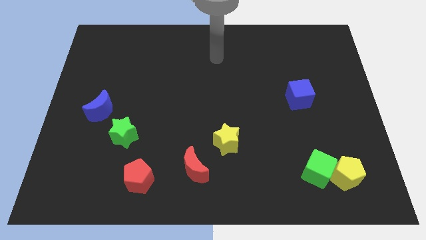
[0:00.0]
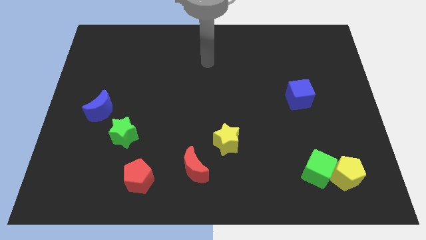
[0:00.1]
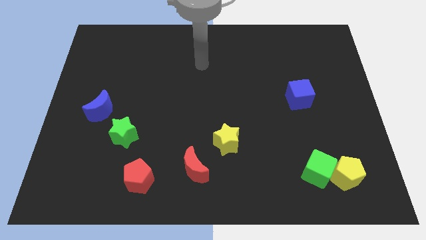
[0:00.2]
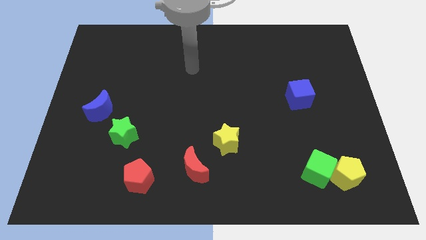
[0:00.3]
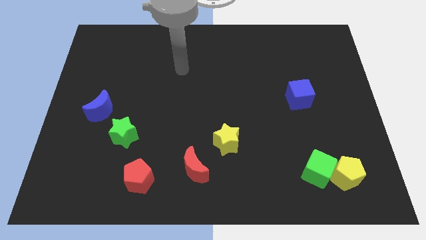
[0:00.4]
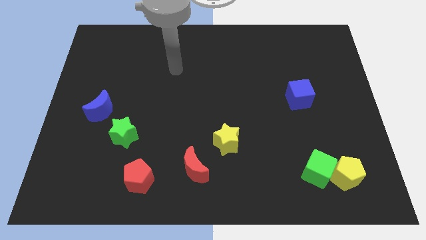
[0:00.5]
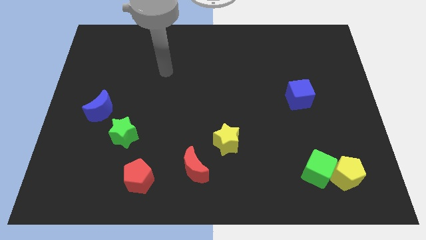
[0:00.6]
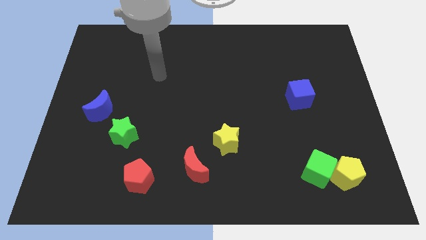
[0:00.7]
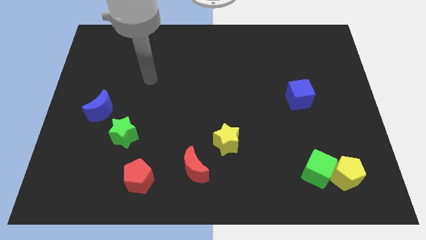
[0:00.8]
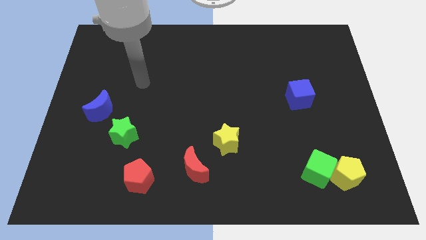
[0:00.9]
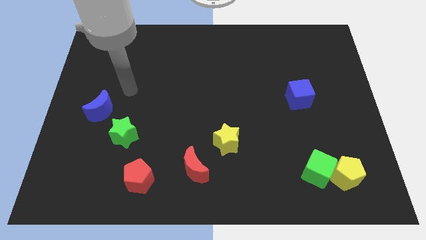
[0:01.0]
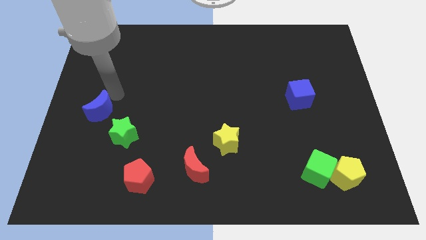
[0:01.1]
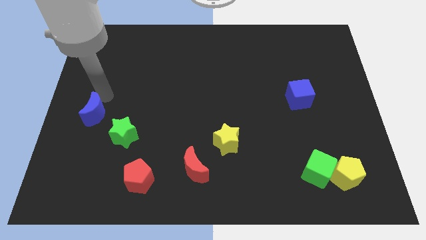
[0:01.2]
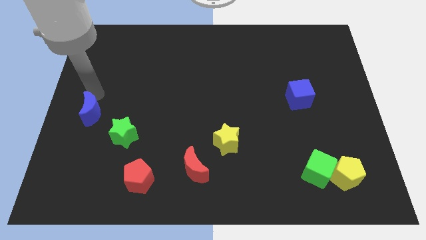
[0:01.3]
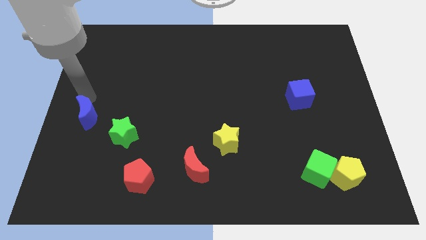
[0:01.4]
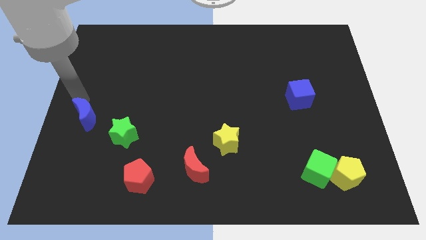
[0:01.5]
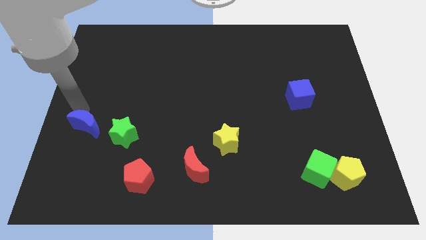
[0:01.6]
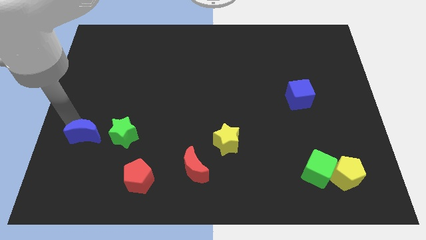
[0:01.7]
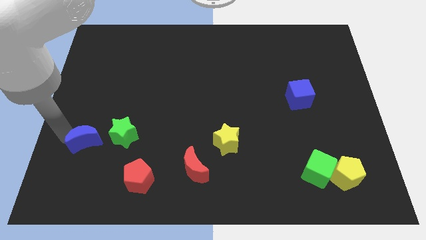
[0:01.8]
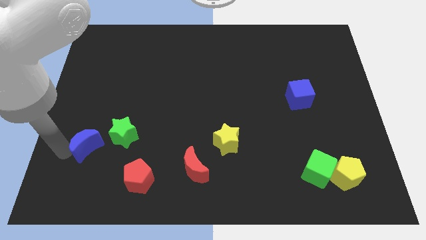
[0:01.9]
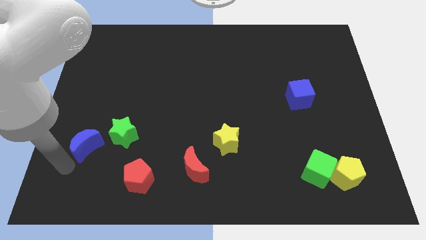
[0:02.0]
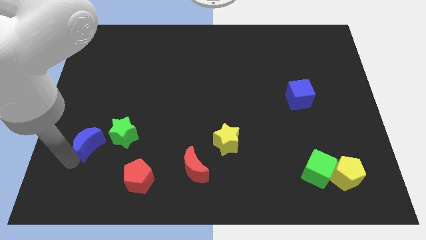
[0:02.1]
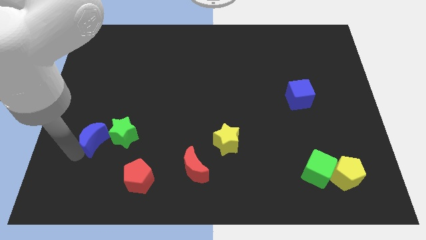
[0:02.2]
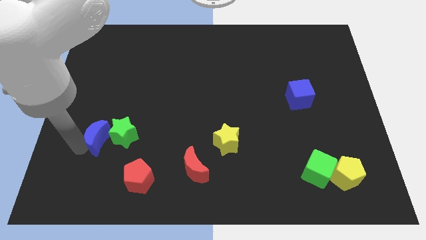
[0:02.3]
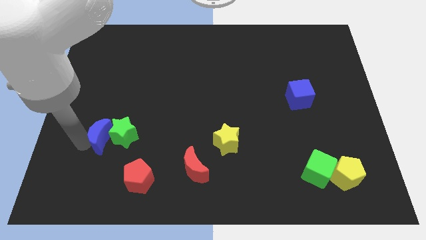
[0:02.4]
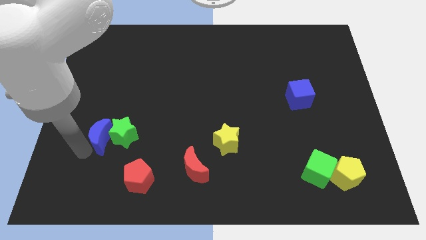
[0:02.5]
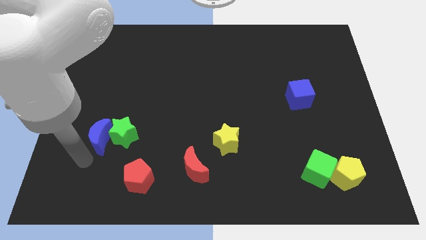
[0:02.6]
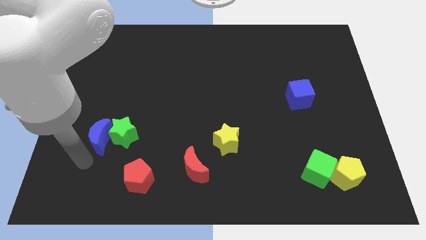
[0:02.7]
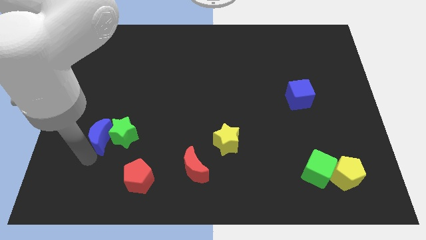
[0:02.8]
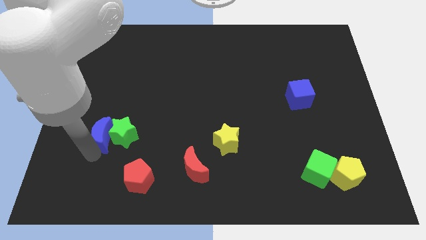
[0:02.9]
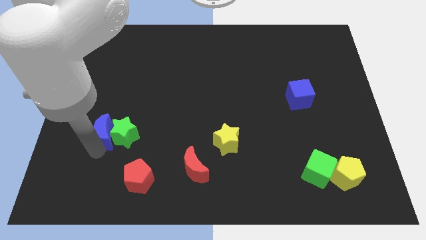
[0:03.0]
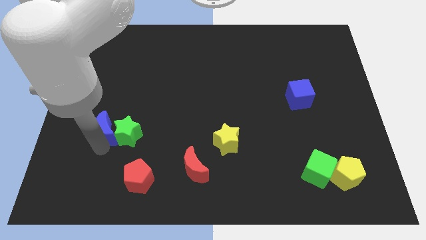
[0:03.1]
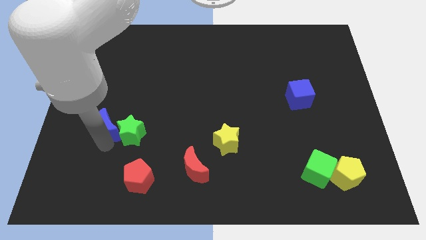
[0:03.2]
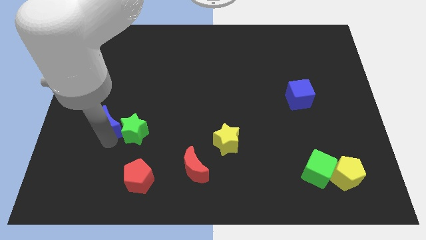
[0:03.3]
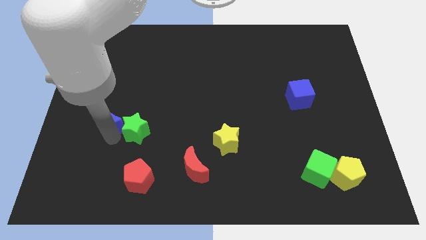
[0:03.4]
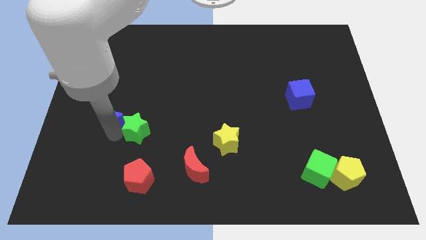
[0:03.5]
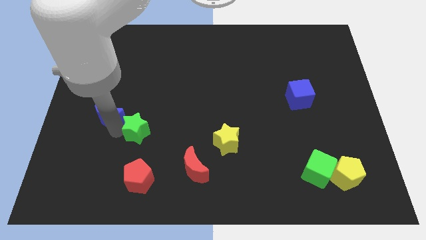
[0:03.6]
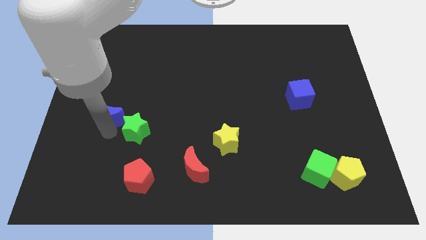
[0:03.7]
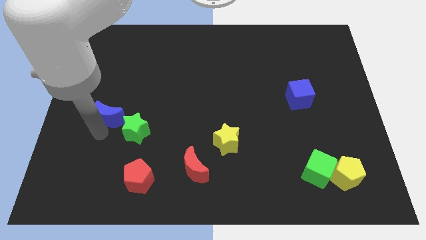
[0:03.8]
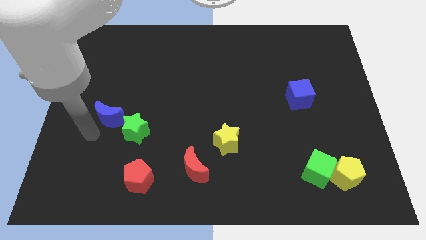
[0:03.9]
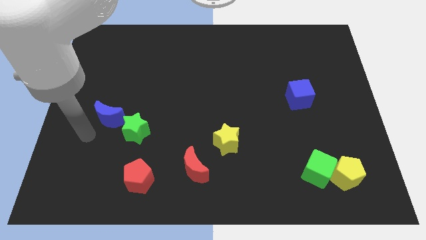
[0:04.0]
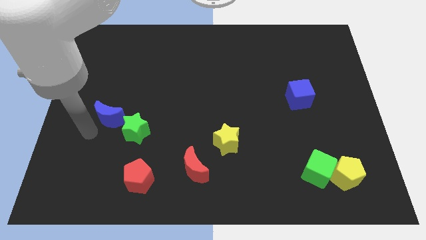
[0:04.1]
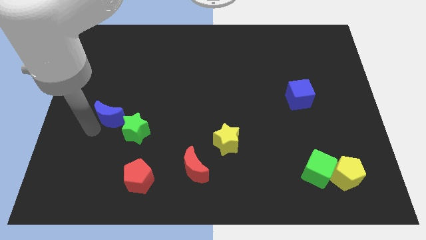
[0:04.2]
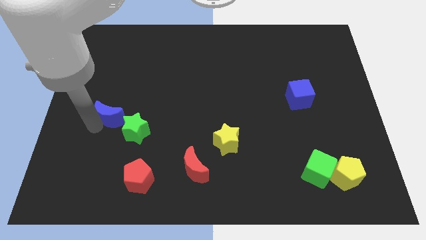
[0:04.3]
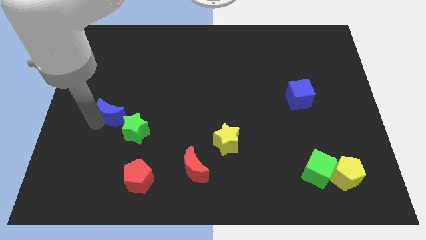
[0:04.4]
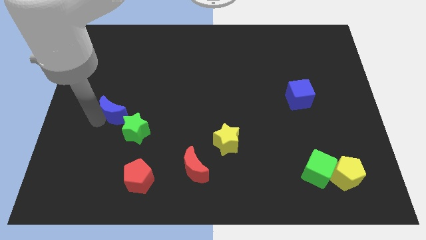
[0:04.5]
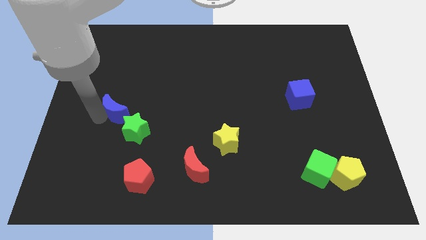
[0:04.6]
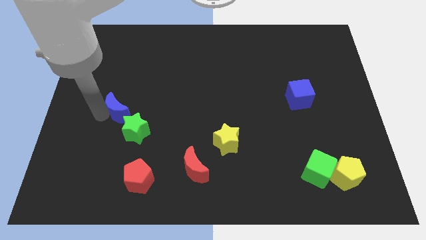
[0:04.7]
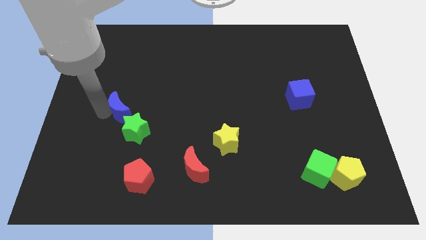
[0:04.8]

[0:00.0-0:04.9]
put the blue moon above the green star

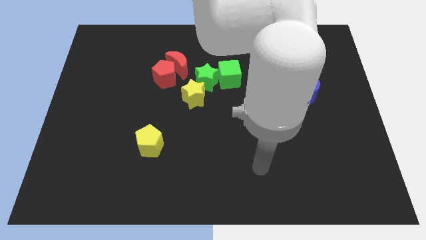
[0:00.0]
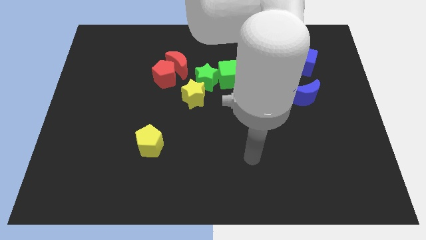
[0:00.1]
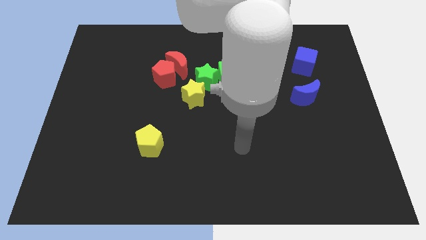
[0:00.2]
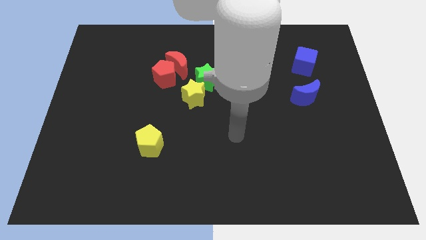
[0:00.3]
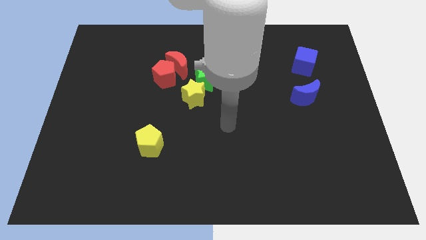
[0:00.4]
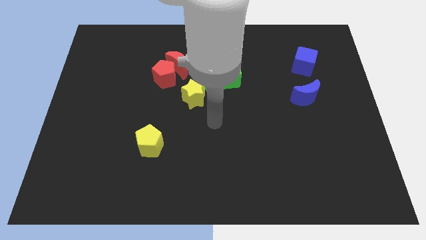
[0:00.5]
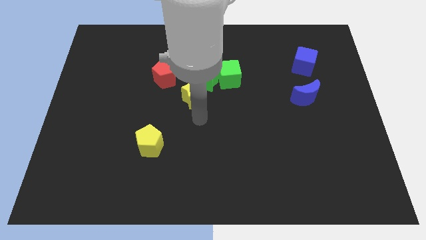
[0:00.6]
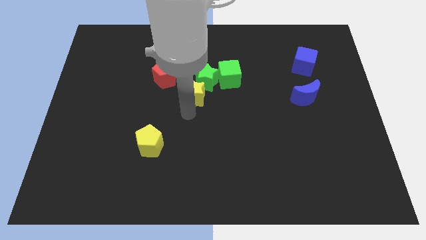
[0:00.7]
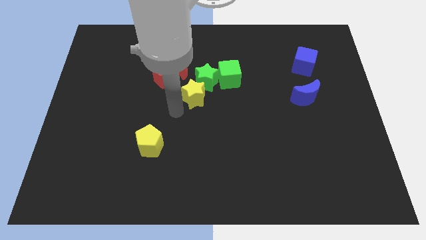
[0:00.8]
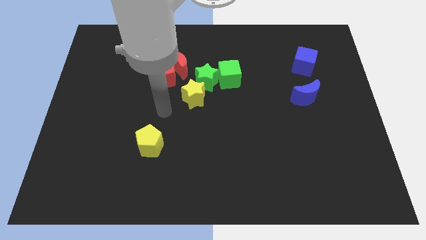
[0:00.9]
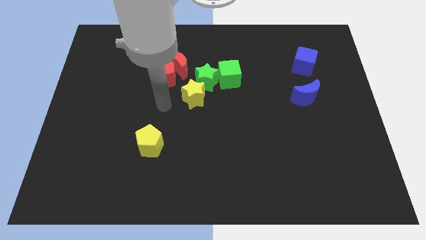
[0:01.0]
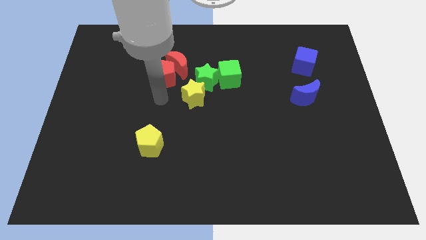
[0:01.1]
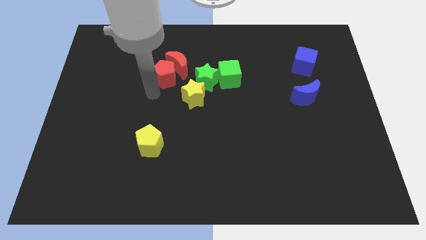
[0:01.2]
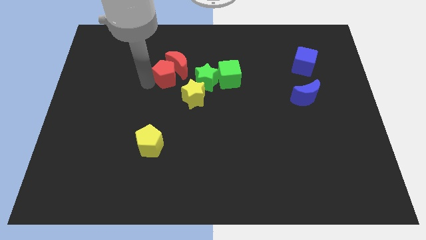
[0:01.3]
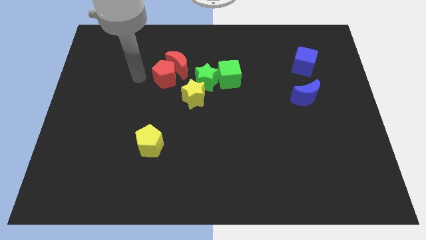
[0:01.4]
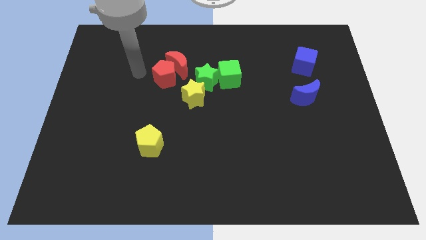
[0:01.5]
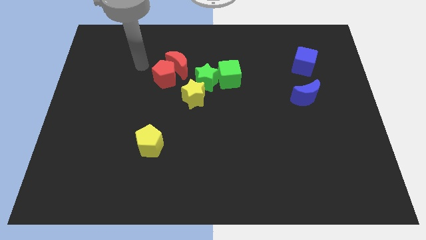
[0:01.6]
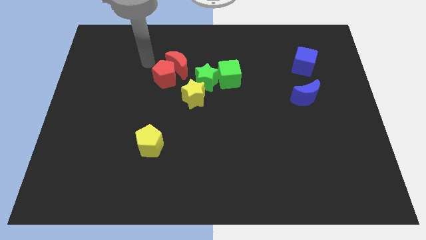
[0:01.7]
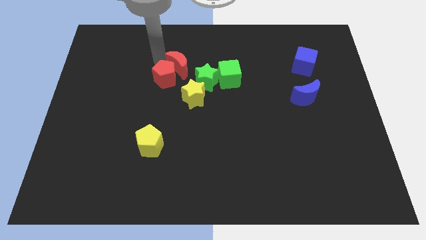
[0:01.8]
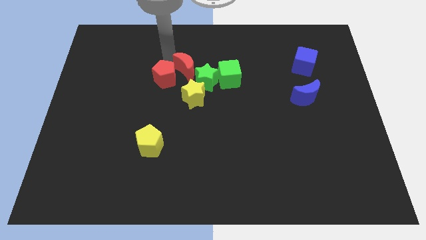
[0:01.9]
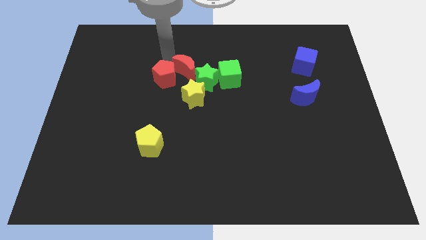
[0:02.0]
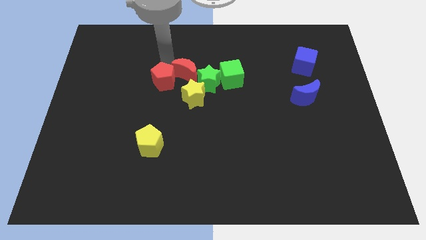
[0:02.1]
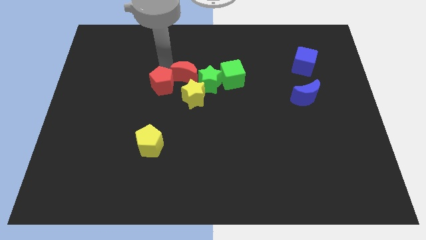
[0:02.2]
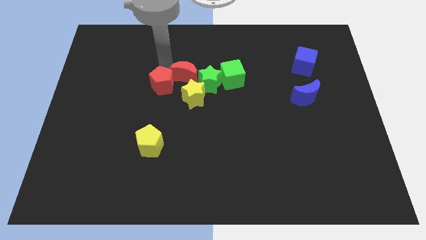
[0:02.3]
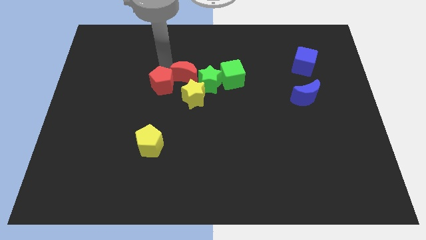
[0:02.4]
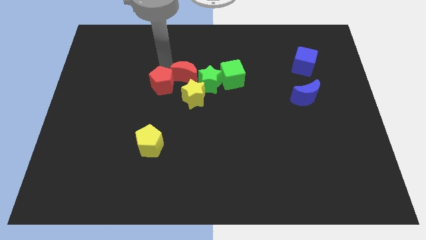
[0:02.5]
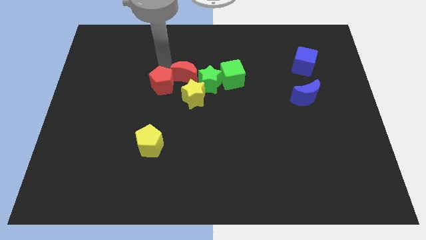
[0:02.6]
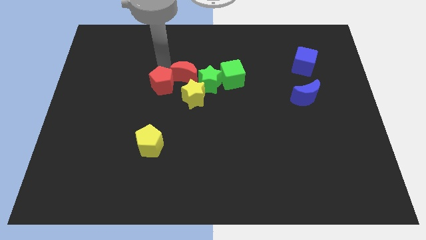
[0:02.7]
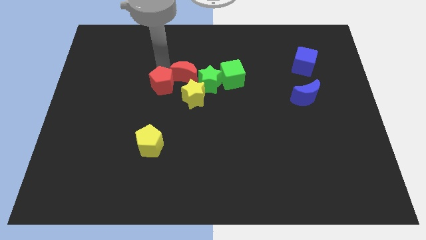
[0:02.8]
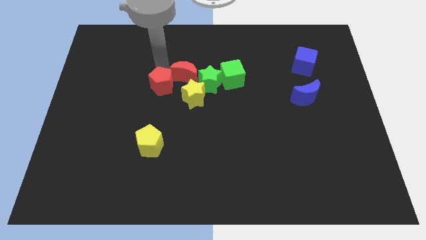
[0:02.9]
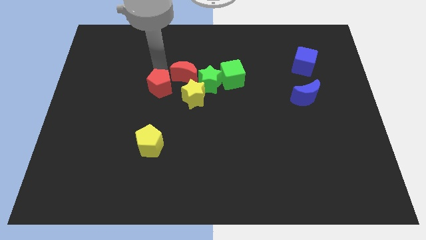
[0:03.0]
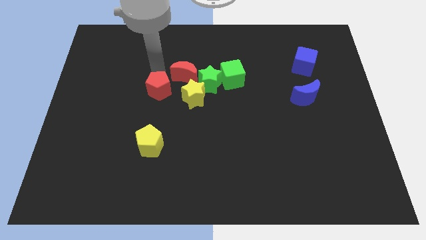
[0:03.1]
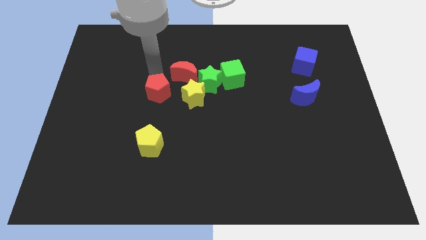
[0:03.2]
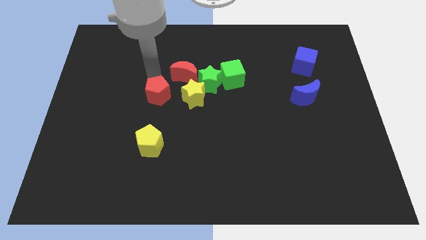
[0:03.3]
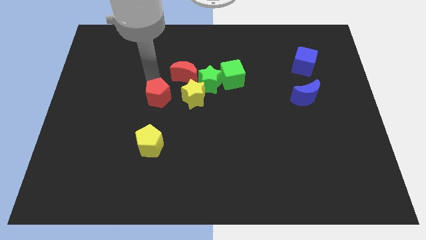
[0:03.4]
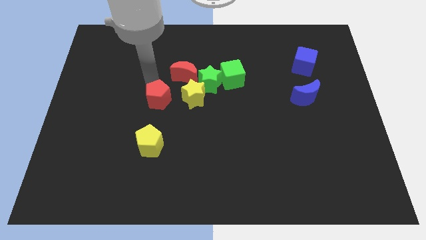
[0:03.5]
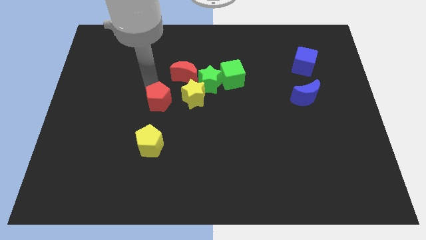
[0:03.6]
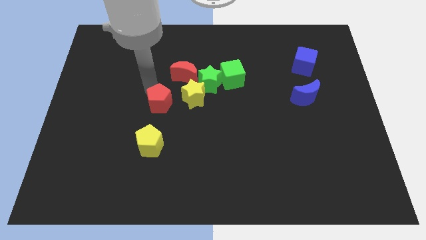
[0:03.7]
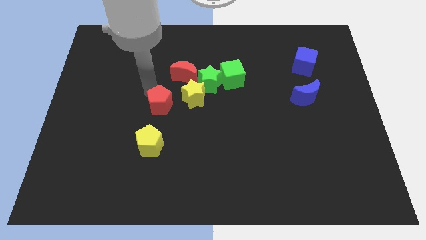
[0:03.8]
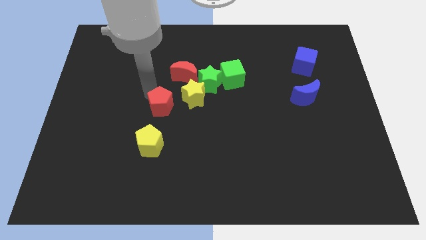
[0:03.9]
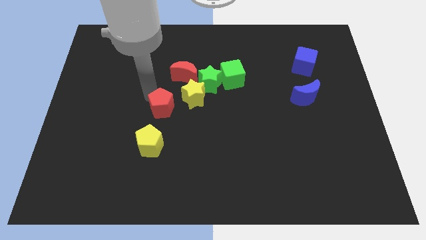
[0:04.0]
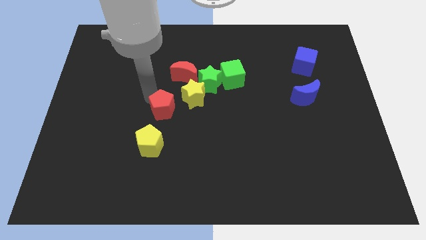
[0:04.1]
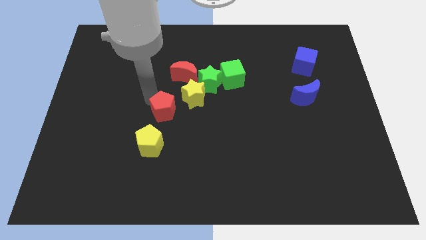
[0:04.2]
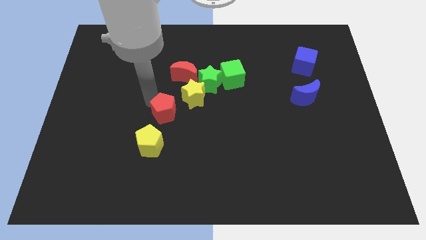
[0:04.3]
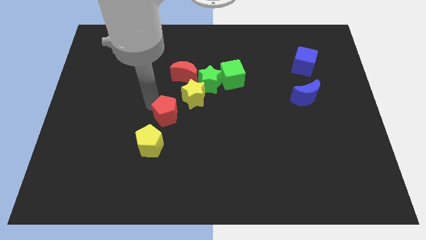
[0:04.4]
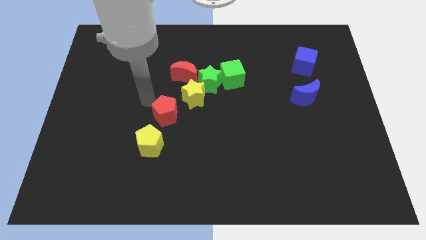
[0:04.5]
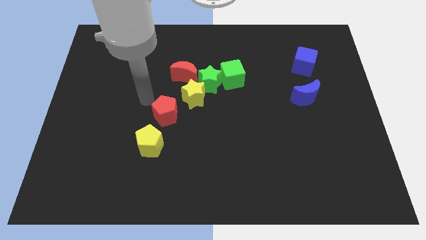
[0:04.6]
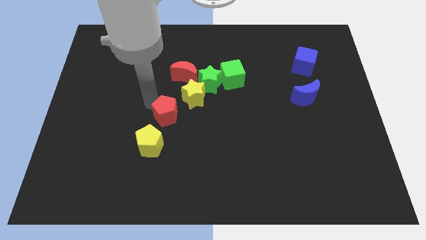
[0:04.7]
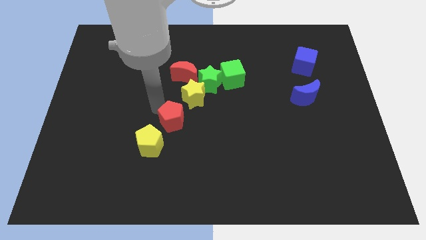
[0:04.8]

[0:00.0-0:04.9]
move the red pentagon to the bottom side of the yellow star
